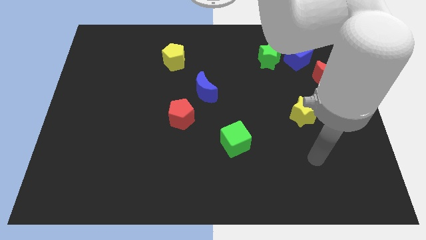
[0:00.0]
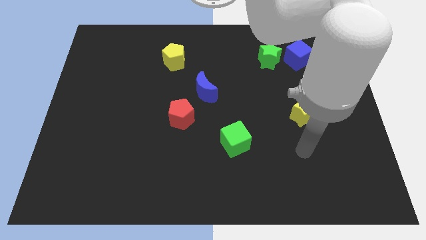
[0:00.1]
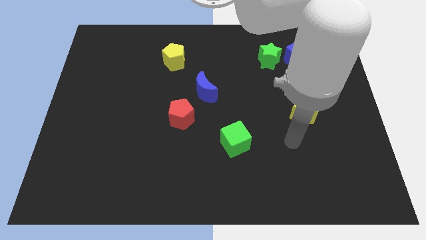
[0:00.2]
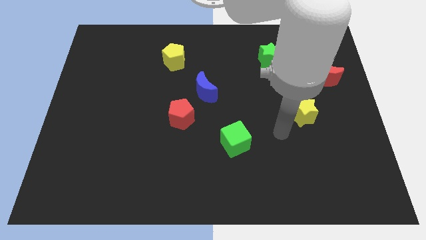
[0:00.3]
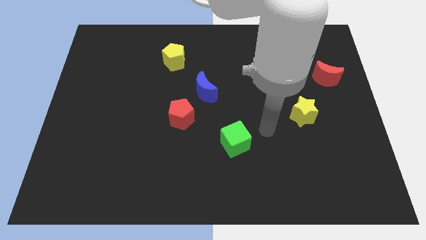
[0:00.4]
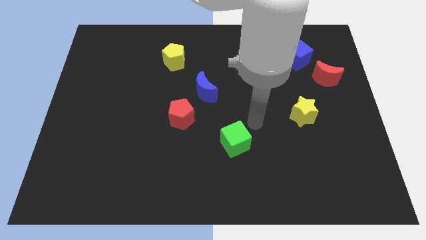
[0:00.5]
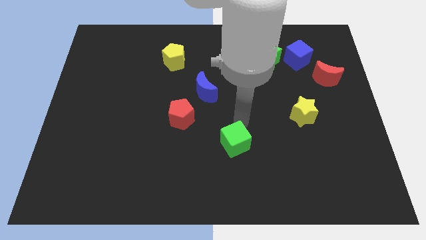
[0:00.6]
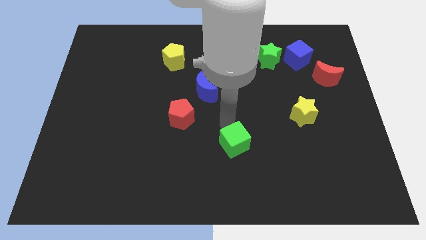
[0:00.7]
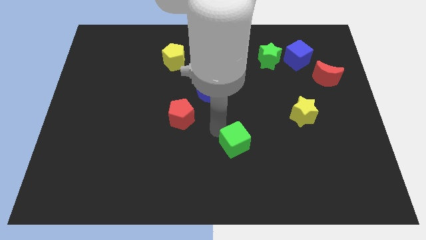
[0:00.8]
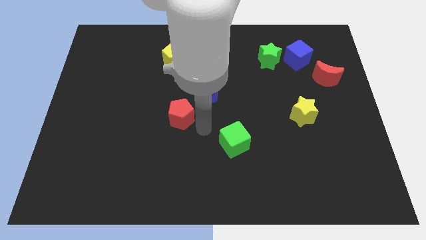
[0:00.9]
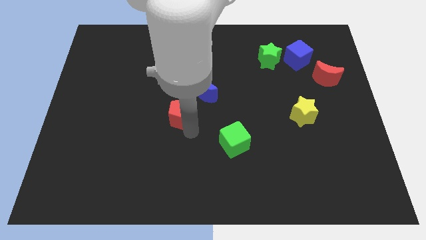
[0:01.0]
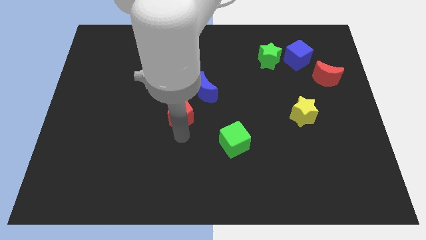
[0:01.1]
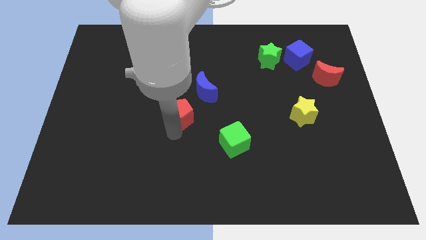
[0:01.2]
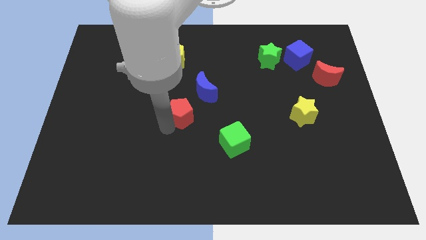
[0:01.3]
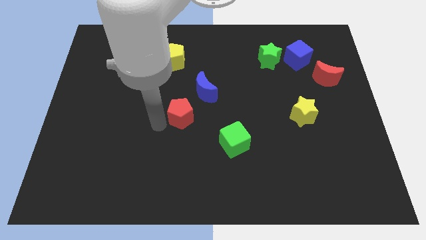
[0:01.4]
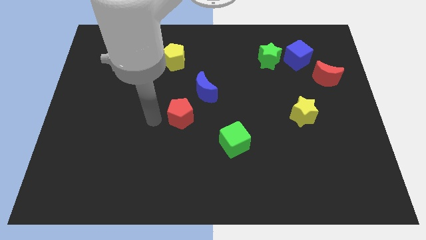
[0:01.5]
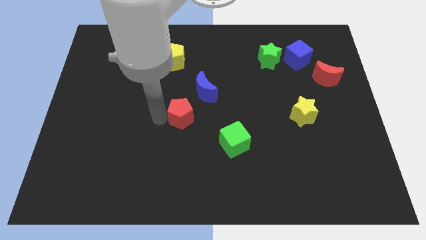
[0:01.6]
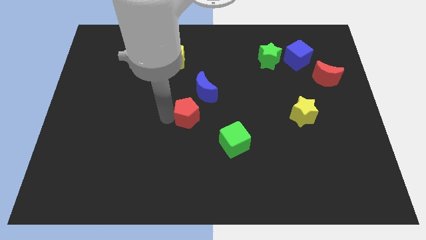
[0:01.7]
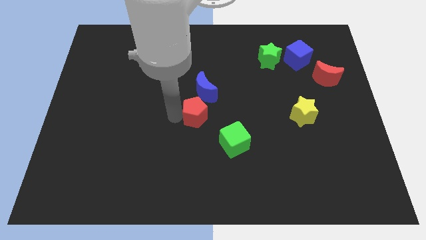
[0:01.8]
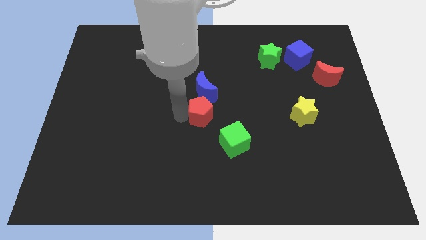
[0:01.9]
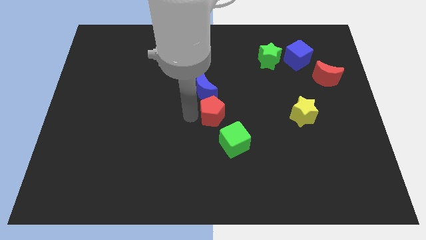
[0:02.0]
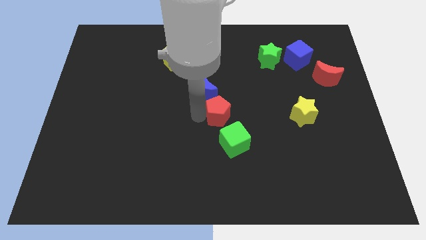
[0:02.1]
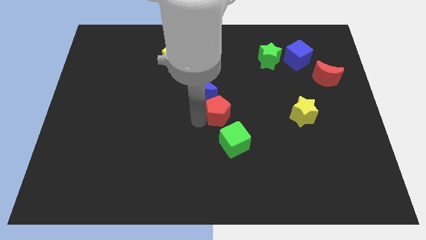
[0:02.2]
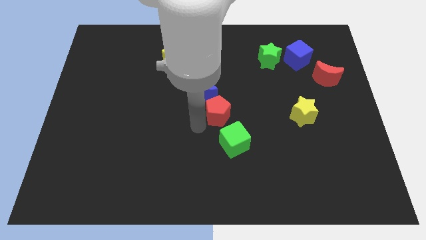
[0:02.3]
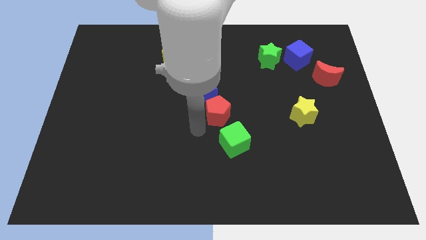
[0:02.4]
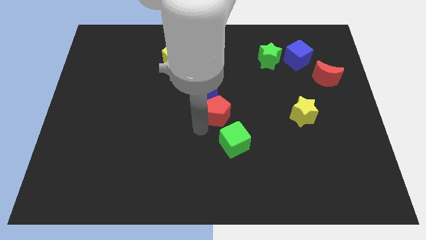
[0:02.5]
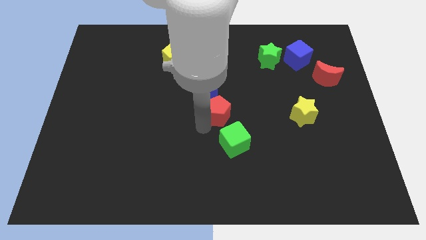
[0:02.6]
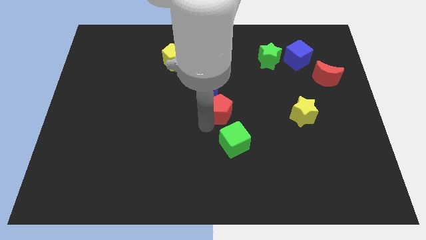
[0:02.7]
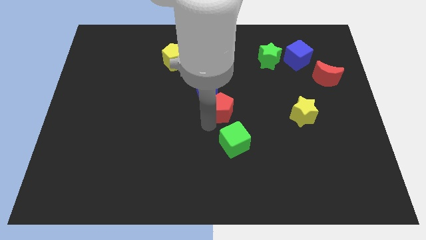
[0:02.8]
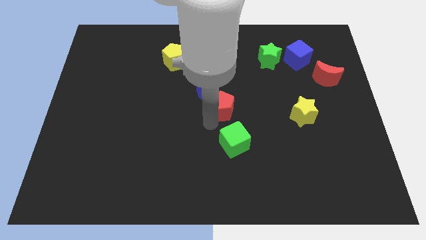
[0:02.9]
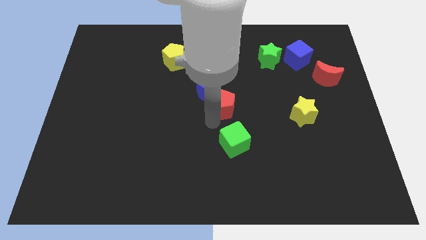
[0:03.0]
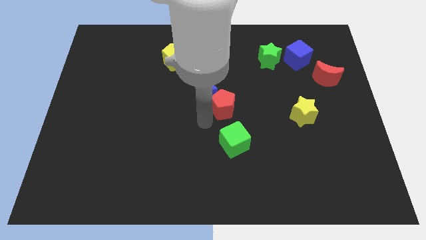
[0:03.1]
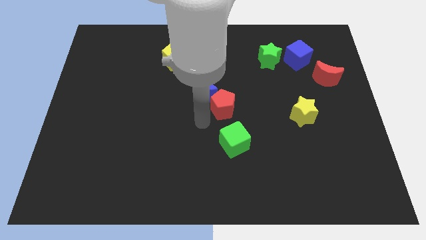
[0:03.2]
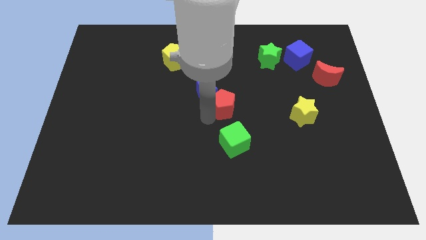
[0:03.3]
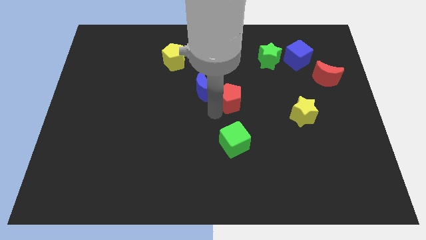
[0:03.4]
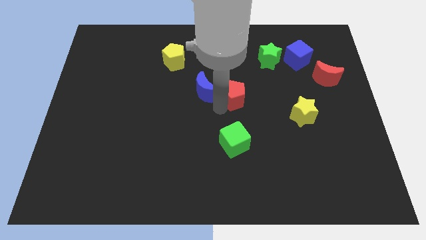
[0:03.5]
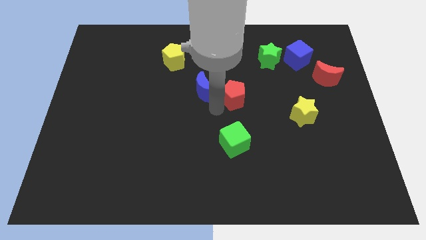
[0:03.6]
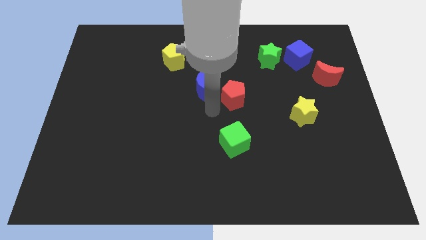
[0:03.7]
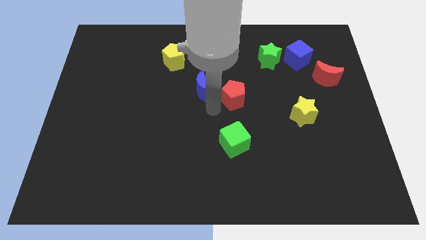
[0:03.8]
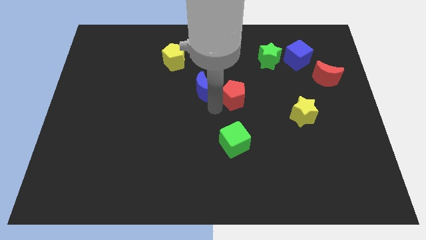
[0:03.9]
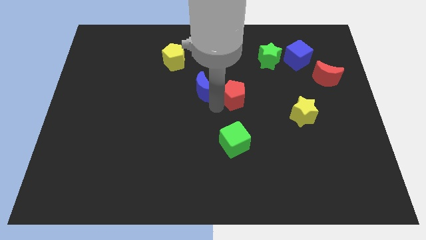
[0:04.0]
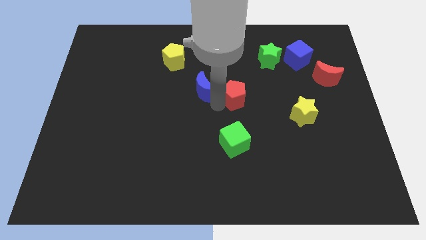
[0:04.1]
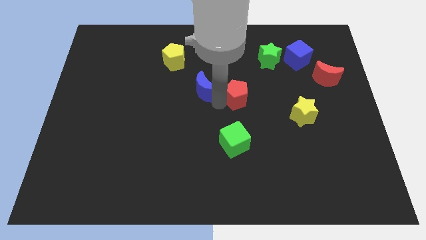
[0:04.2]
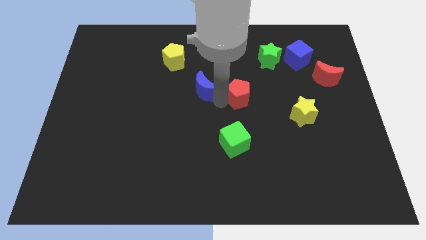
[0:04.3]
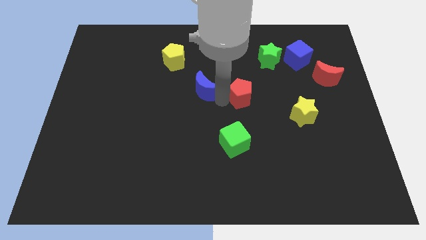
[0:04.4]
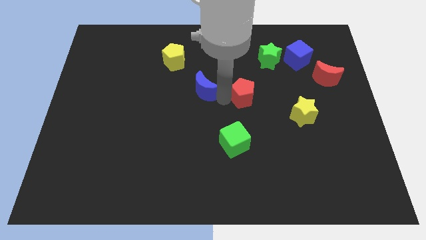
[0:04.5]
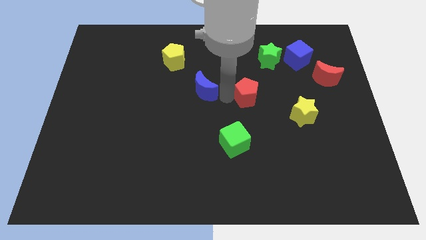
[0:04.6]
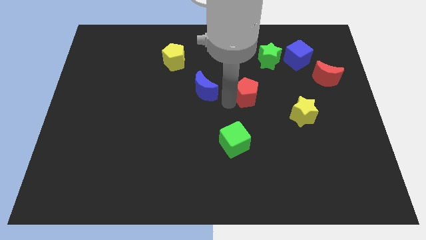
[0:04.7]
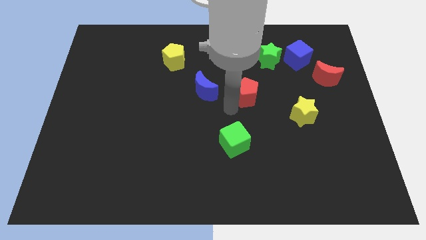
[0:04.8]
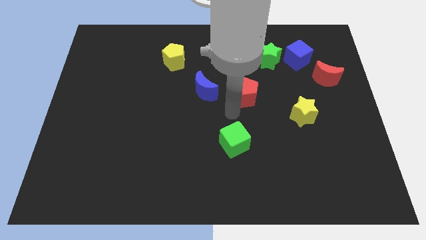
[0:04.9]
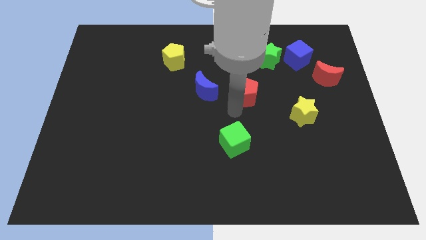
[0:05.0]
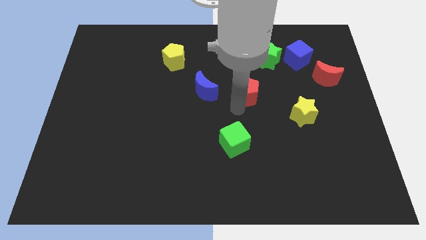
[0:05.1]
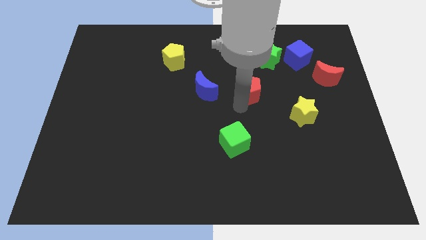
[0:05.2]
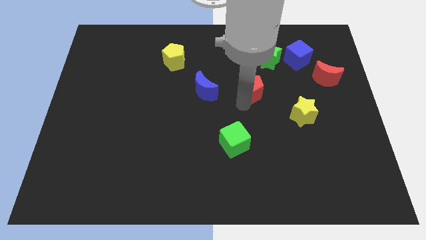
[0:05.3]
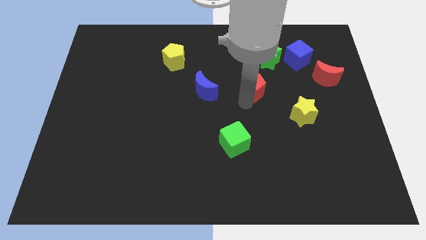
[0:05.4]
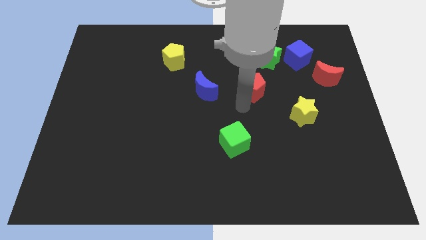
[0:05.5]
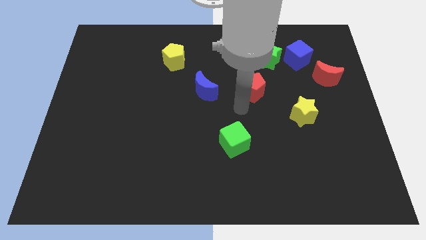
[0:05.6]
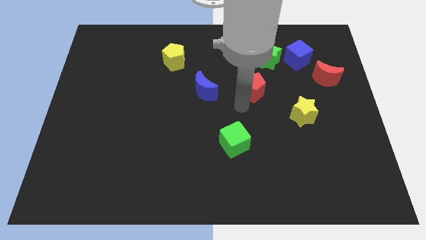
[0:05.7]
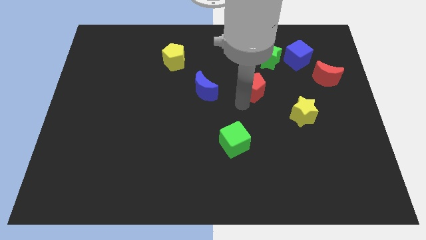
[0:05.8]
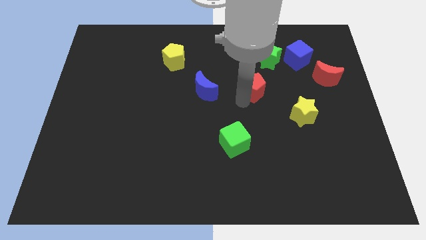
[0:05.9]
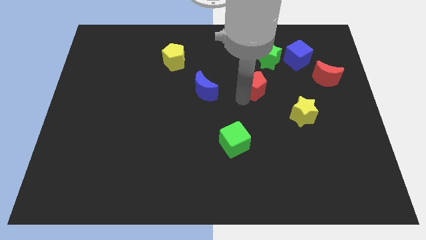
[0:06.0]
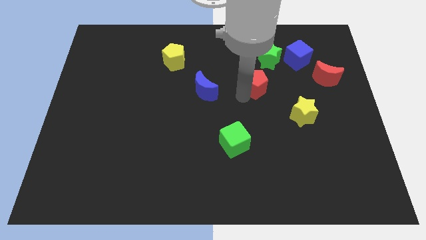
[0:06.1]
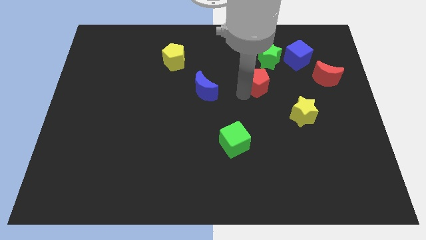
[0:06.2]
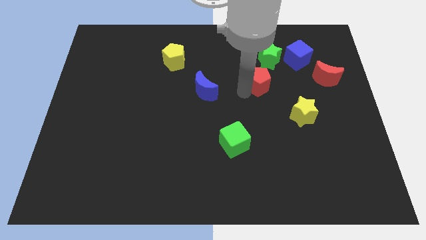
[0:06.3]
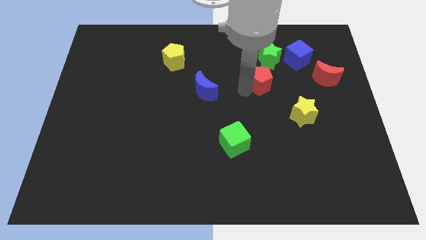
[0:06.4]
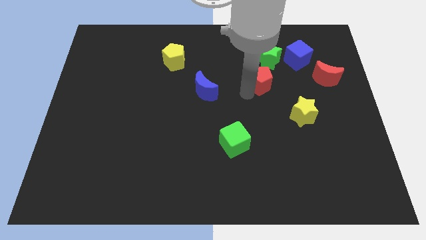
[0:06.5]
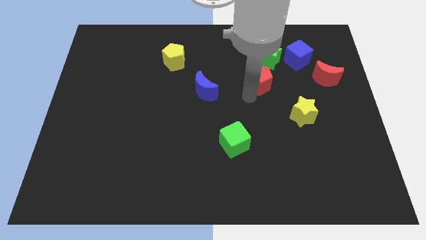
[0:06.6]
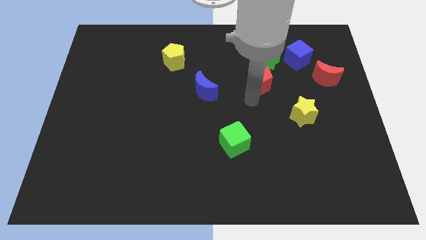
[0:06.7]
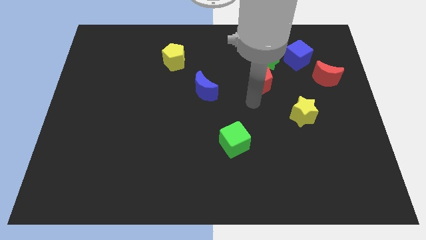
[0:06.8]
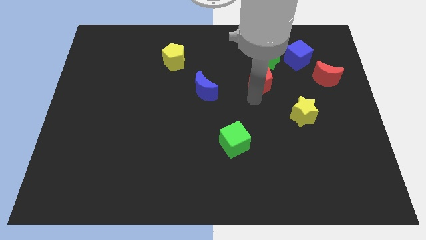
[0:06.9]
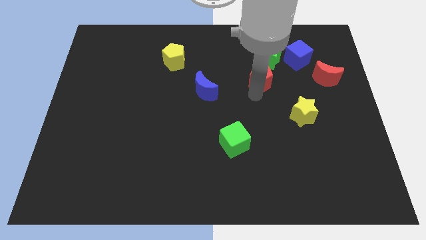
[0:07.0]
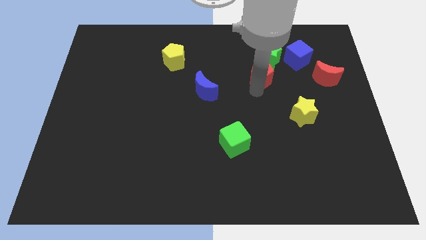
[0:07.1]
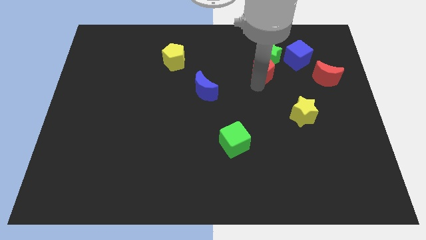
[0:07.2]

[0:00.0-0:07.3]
push the red pentagon towards the green star
